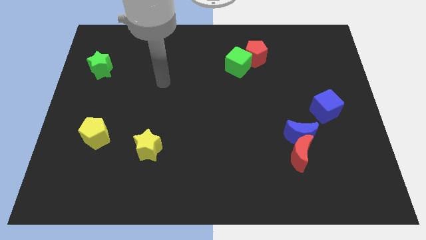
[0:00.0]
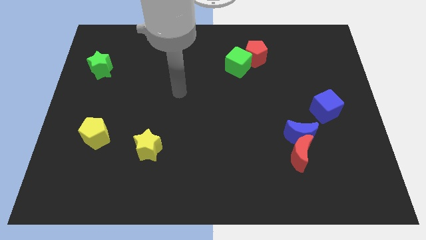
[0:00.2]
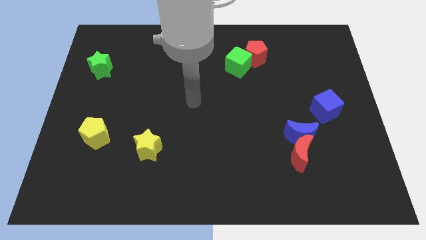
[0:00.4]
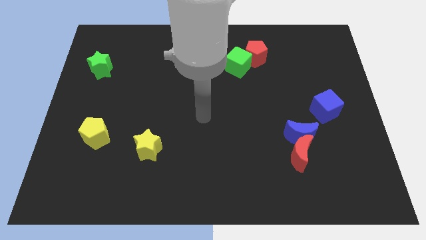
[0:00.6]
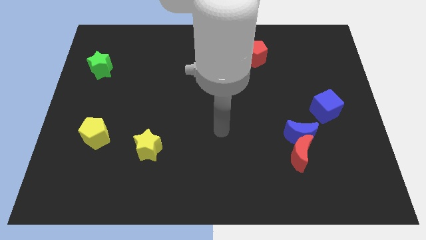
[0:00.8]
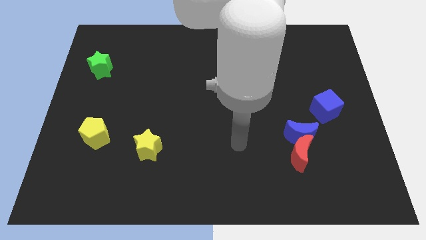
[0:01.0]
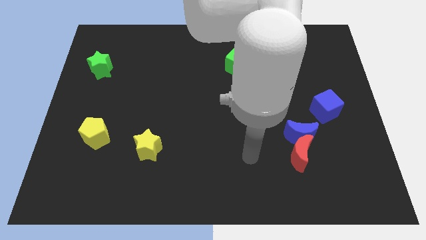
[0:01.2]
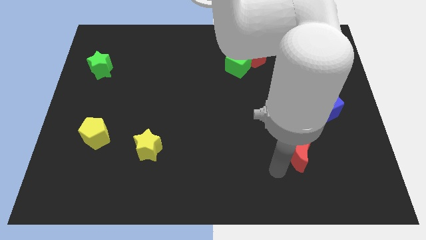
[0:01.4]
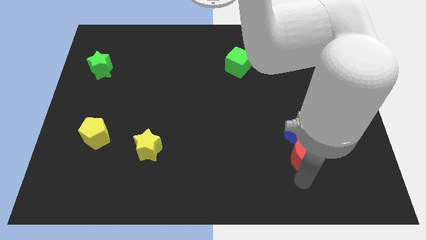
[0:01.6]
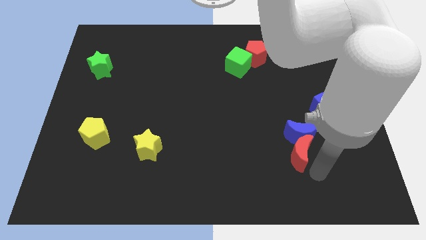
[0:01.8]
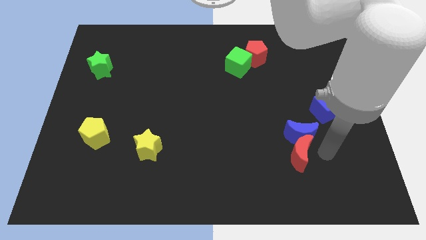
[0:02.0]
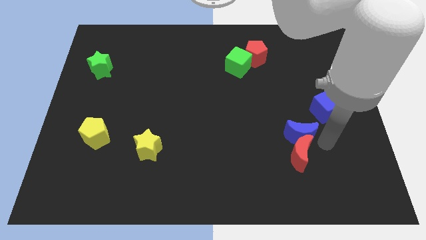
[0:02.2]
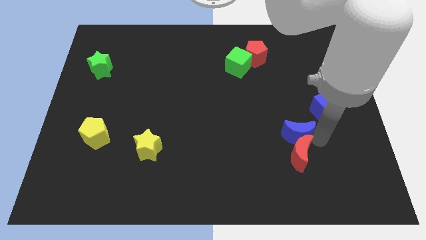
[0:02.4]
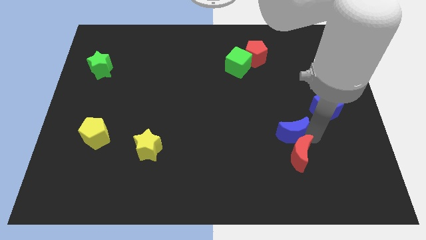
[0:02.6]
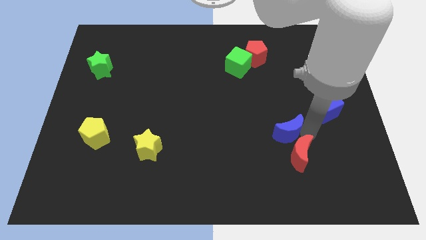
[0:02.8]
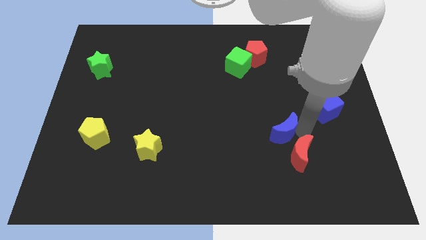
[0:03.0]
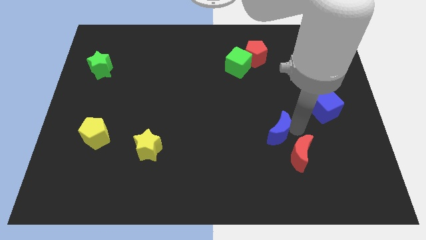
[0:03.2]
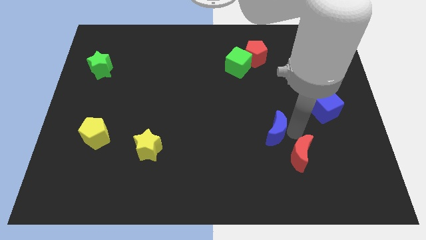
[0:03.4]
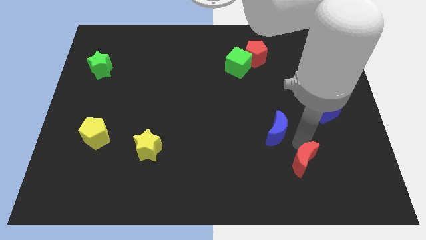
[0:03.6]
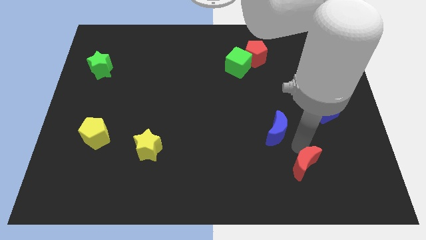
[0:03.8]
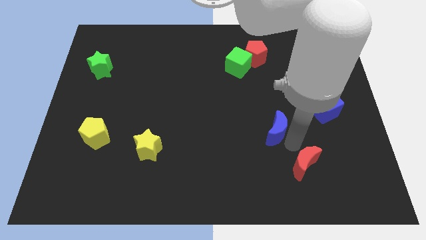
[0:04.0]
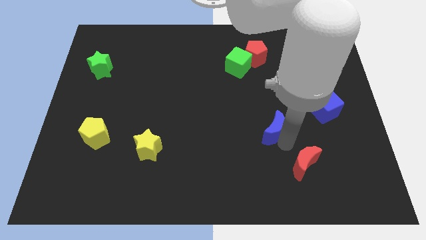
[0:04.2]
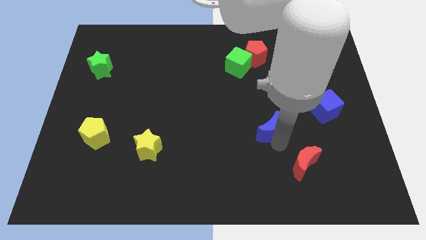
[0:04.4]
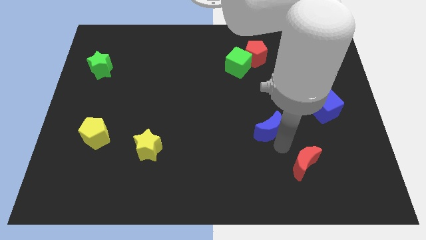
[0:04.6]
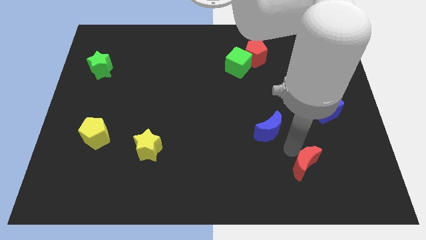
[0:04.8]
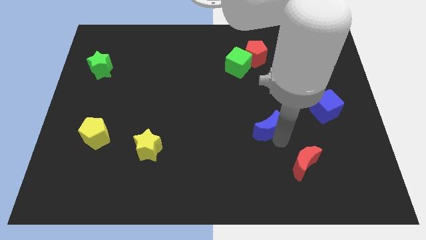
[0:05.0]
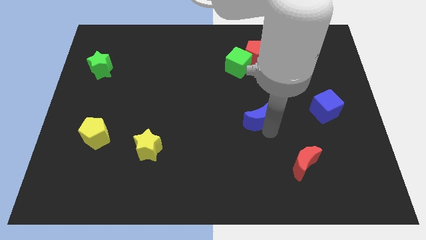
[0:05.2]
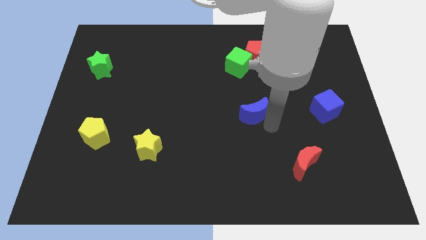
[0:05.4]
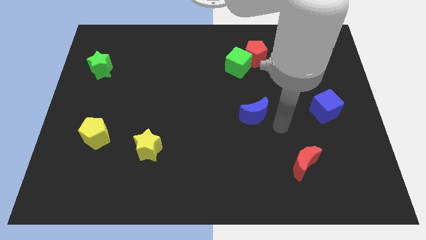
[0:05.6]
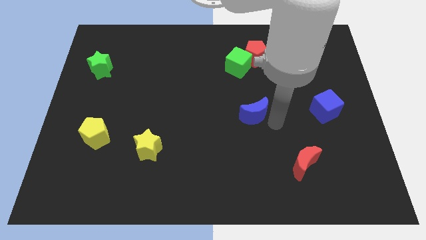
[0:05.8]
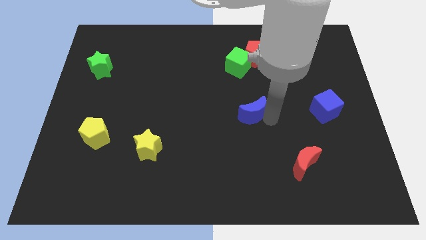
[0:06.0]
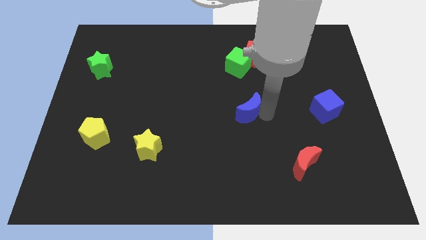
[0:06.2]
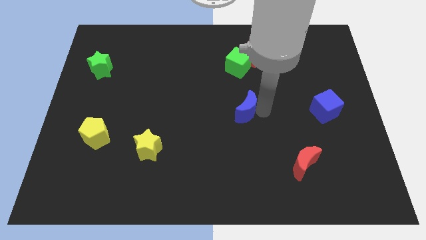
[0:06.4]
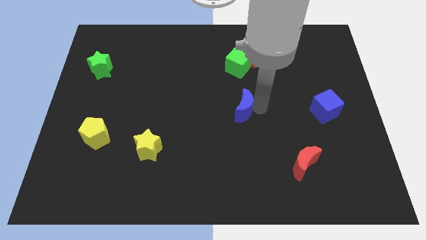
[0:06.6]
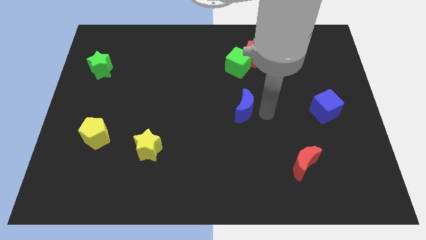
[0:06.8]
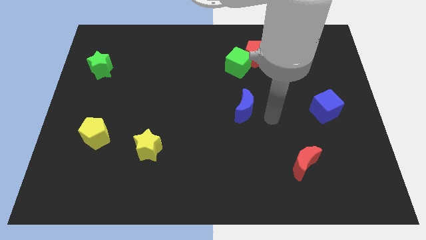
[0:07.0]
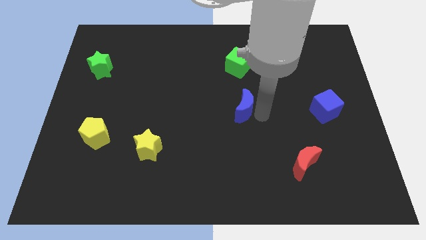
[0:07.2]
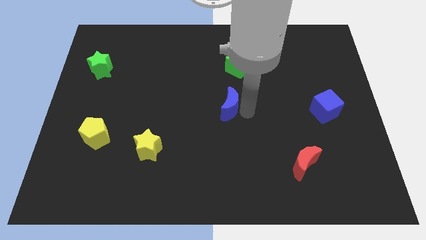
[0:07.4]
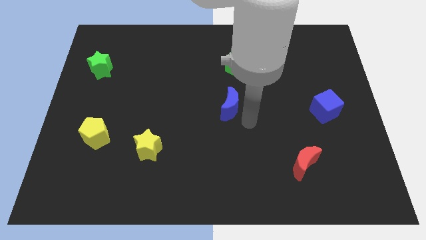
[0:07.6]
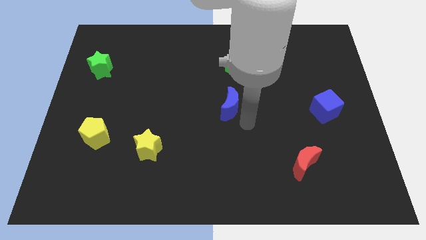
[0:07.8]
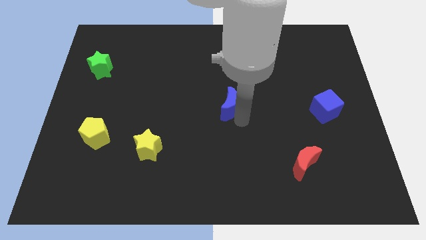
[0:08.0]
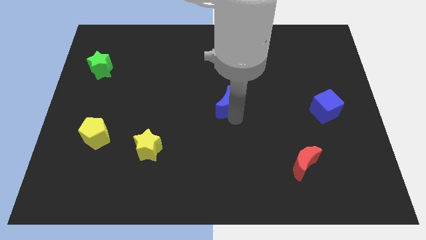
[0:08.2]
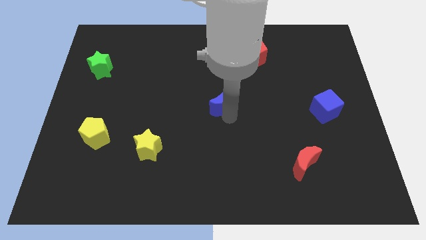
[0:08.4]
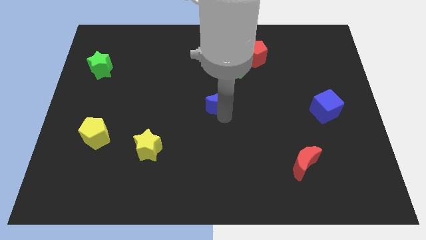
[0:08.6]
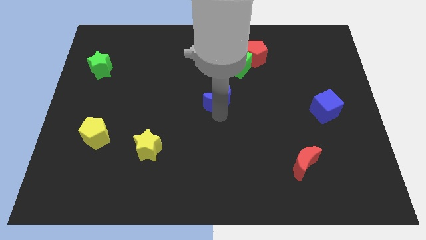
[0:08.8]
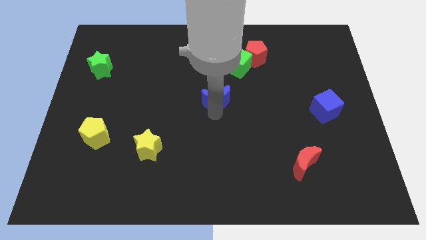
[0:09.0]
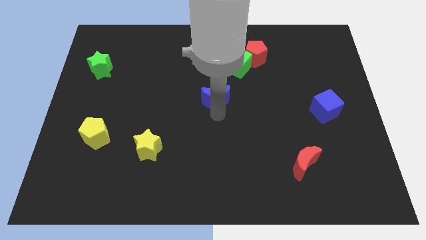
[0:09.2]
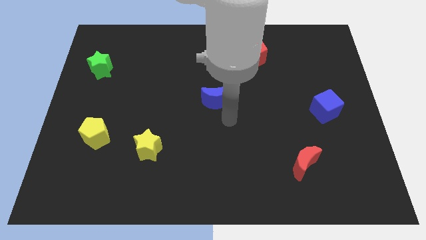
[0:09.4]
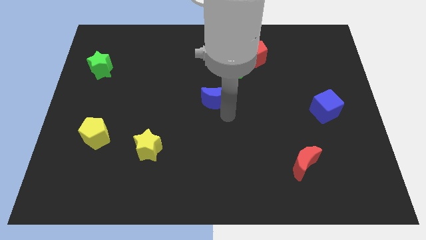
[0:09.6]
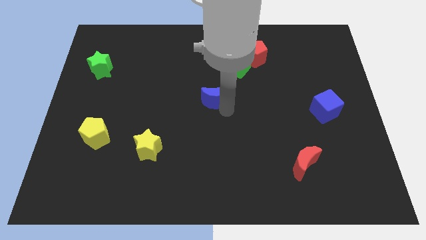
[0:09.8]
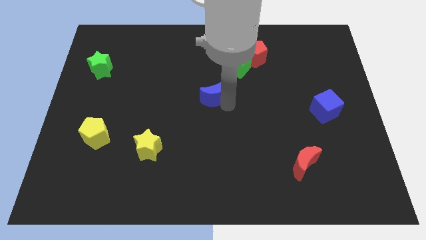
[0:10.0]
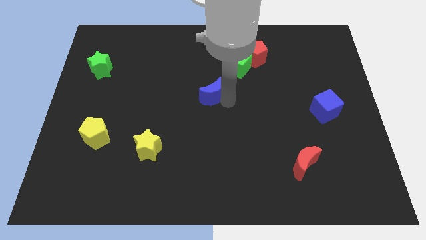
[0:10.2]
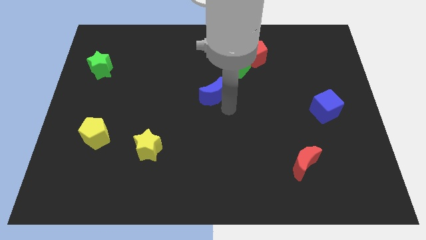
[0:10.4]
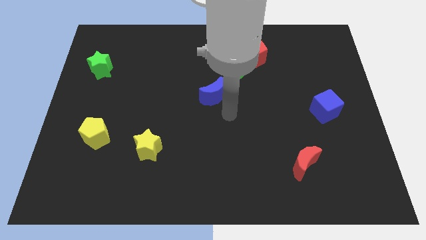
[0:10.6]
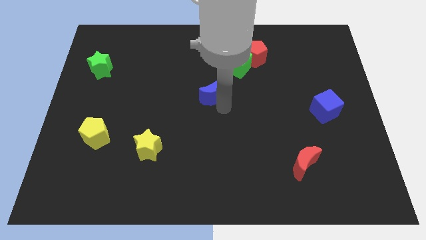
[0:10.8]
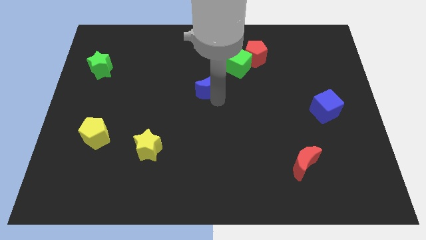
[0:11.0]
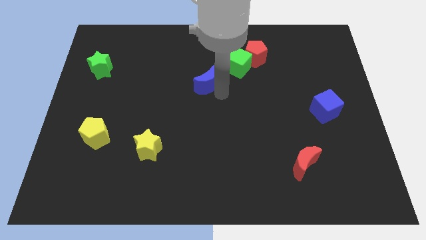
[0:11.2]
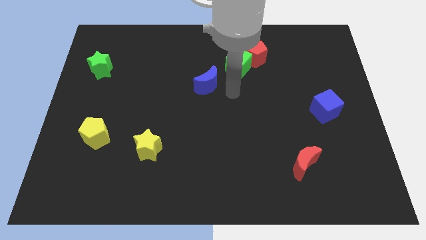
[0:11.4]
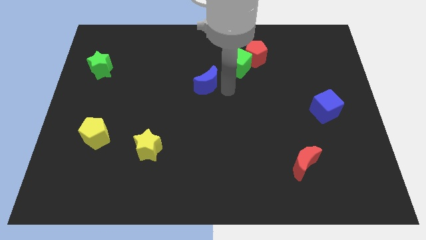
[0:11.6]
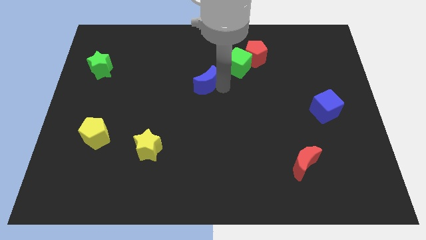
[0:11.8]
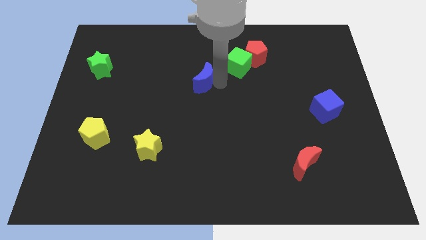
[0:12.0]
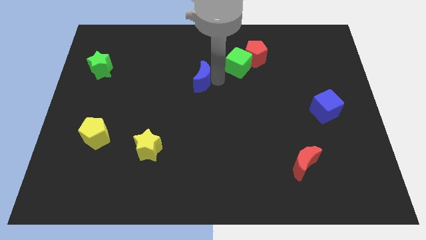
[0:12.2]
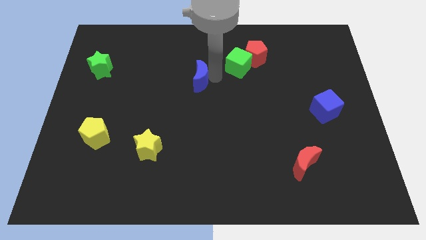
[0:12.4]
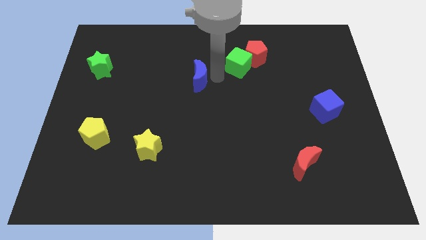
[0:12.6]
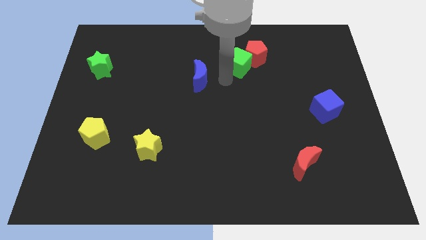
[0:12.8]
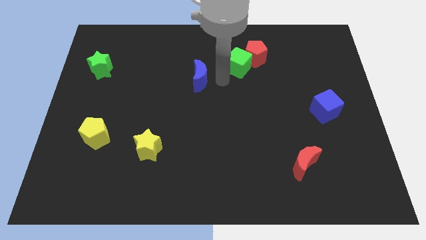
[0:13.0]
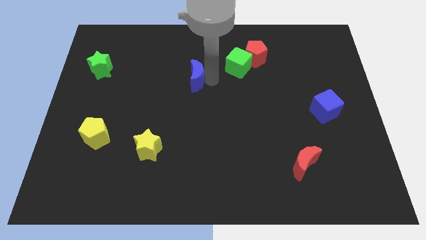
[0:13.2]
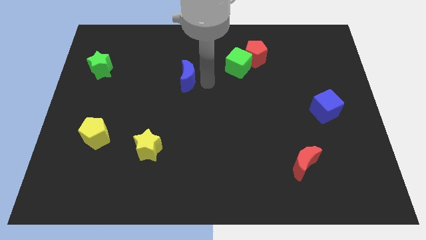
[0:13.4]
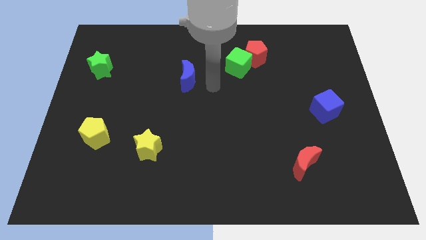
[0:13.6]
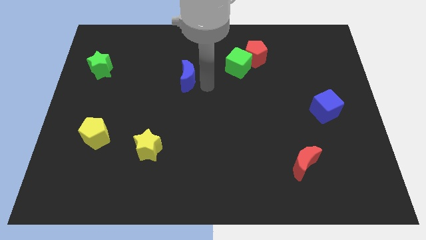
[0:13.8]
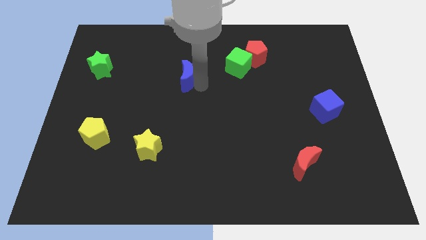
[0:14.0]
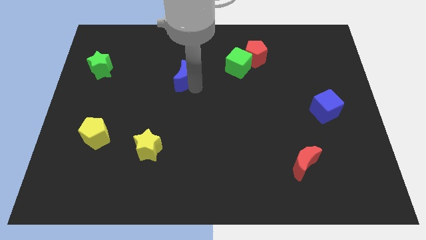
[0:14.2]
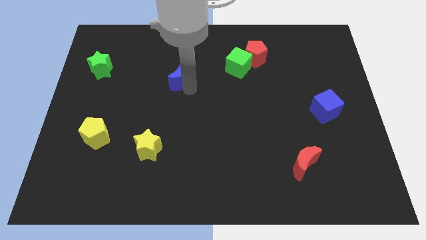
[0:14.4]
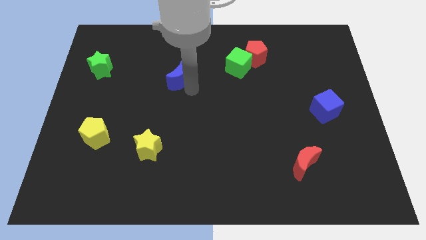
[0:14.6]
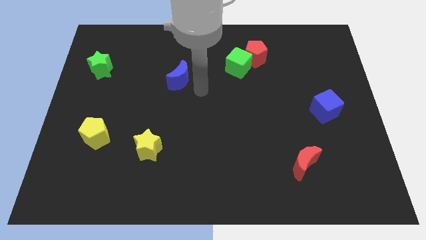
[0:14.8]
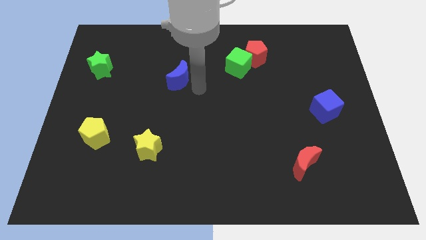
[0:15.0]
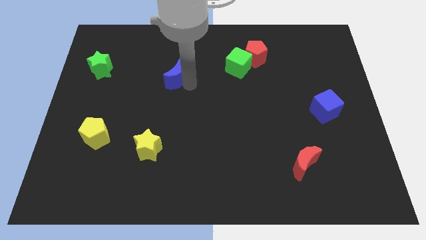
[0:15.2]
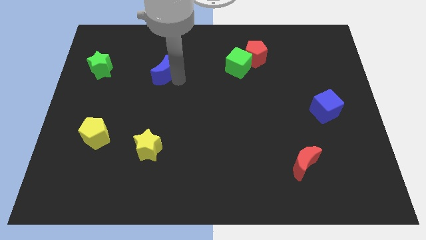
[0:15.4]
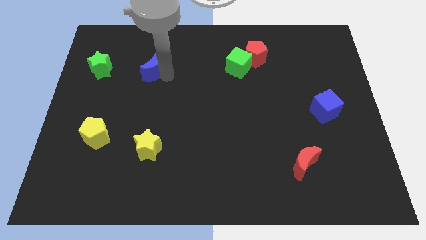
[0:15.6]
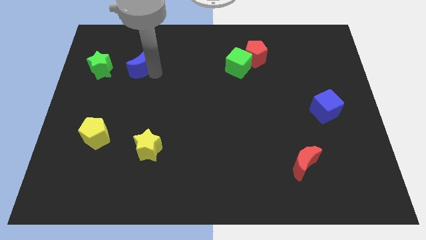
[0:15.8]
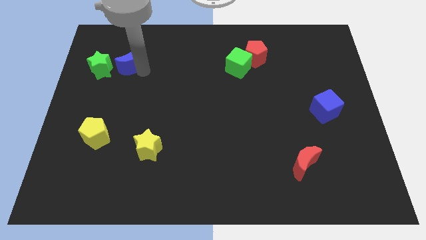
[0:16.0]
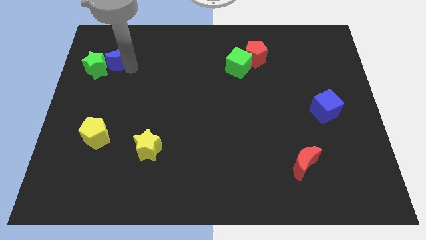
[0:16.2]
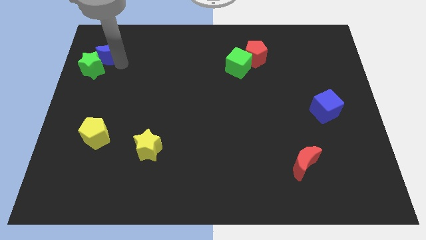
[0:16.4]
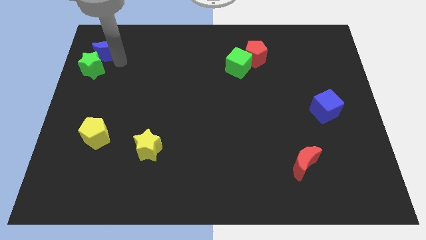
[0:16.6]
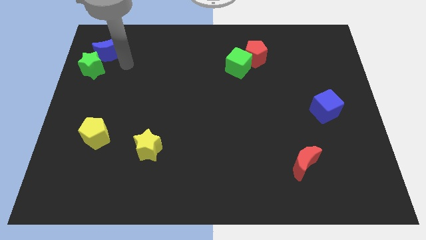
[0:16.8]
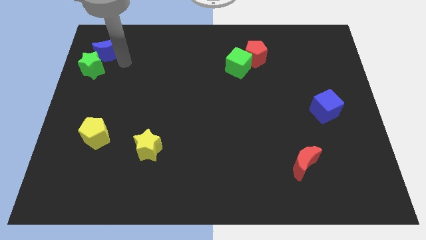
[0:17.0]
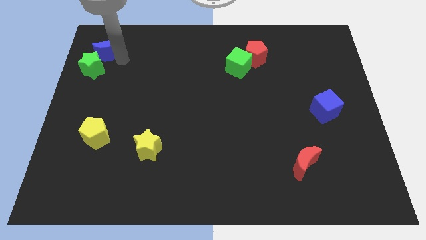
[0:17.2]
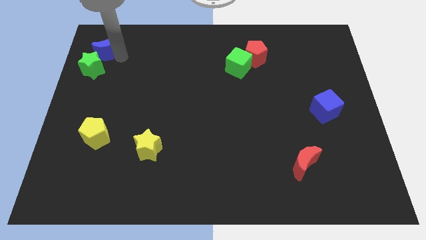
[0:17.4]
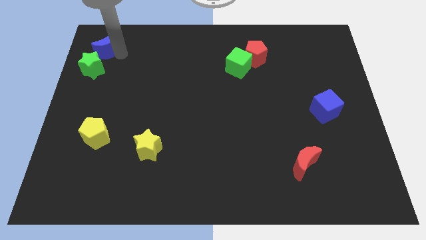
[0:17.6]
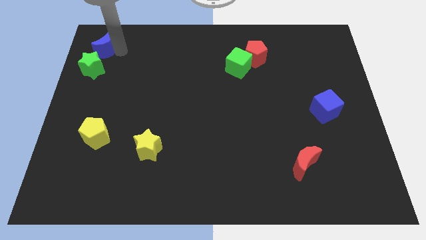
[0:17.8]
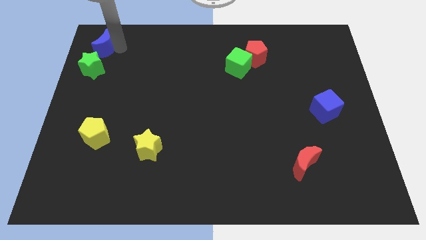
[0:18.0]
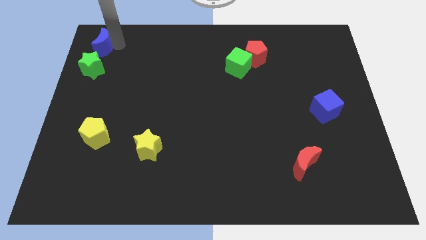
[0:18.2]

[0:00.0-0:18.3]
put the blue moon to the top left of the board
